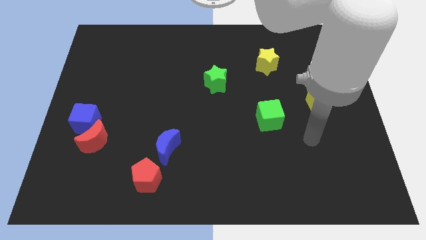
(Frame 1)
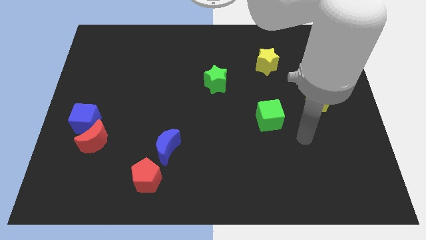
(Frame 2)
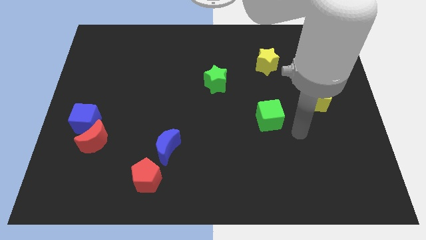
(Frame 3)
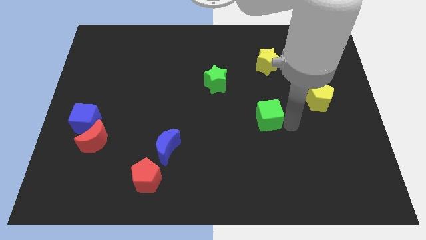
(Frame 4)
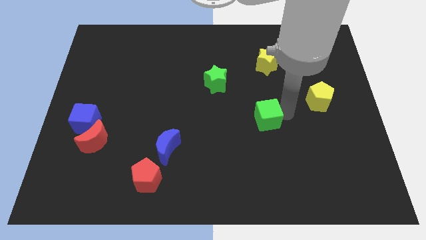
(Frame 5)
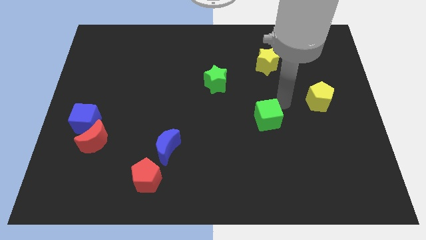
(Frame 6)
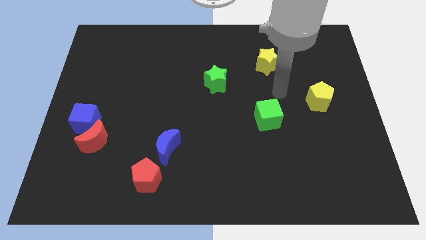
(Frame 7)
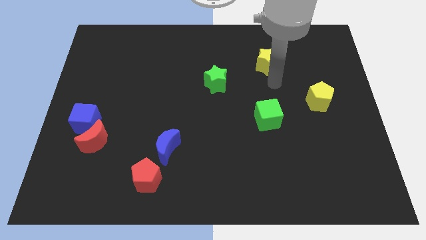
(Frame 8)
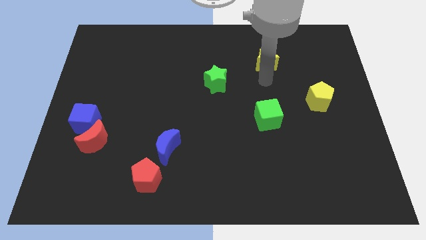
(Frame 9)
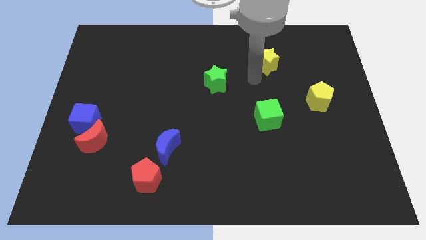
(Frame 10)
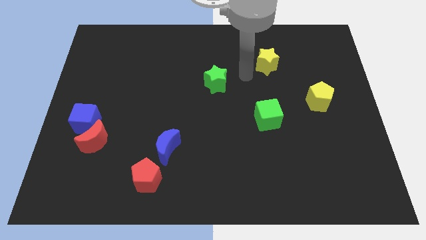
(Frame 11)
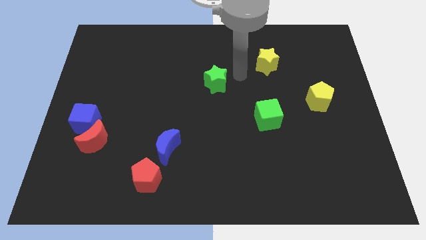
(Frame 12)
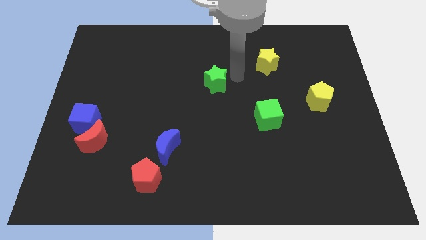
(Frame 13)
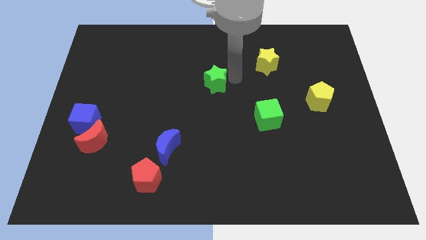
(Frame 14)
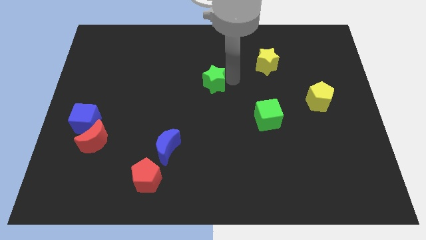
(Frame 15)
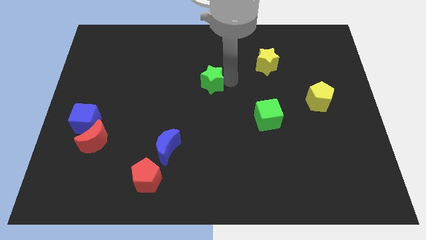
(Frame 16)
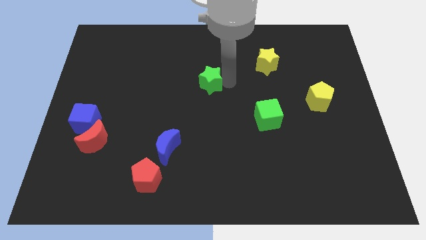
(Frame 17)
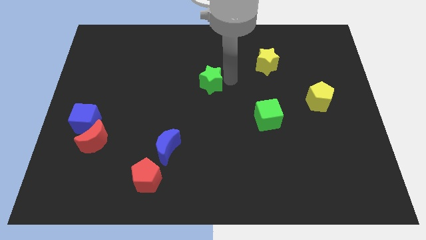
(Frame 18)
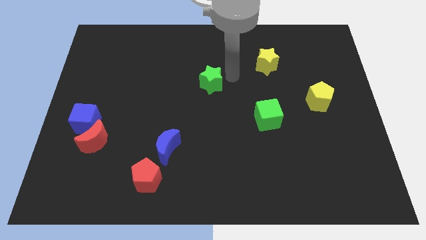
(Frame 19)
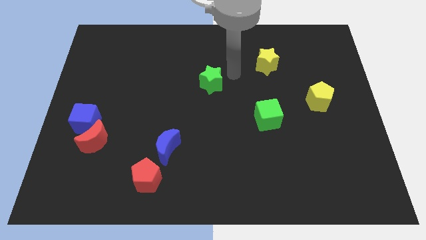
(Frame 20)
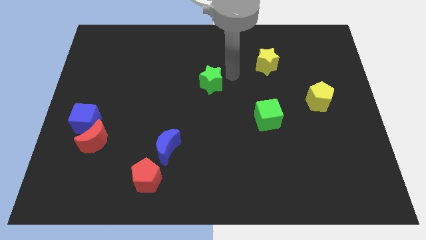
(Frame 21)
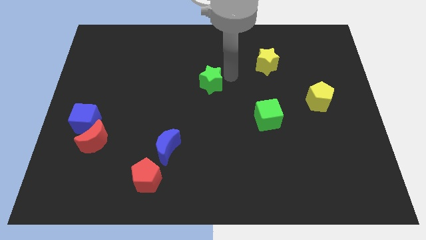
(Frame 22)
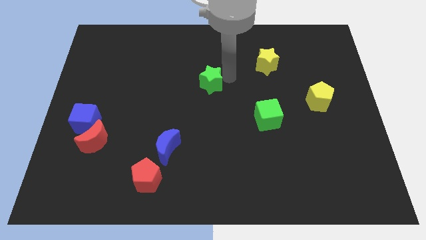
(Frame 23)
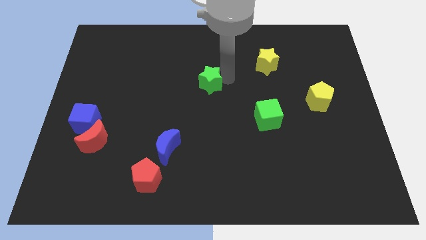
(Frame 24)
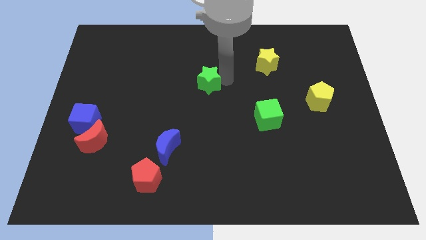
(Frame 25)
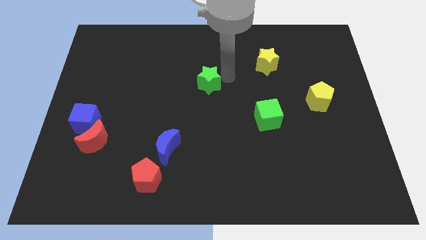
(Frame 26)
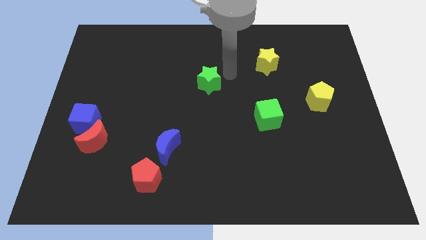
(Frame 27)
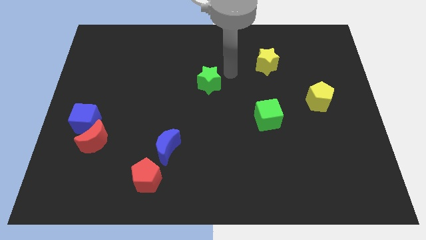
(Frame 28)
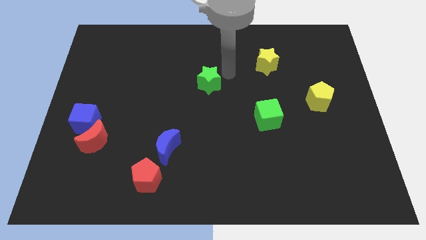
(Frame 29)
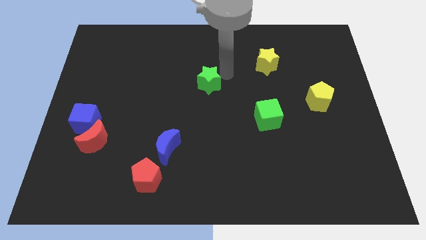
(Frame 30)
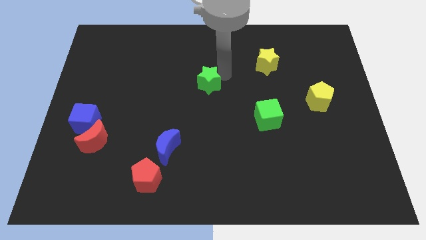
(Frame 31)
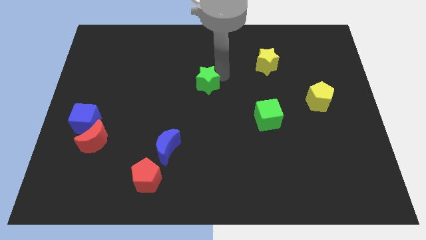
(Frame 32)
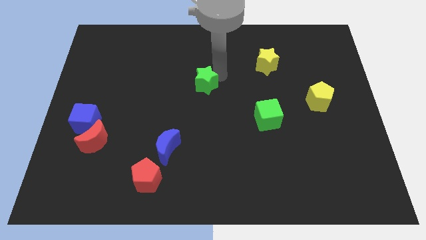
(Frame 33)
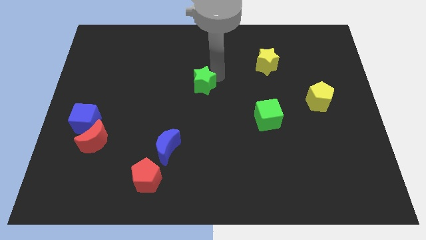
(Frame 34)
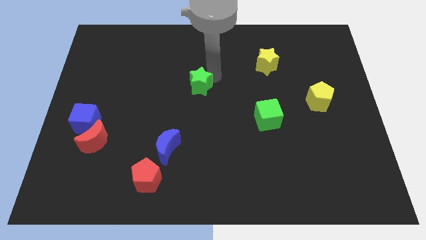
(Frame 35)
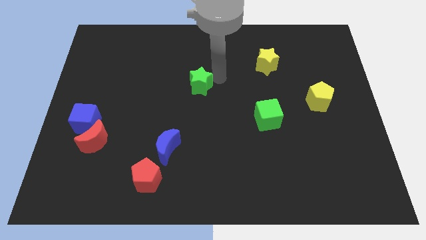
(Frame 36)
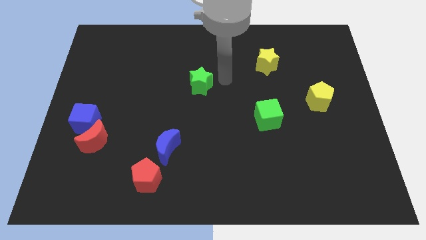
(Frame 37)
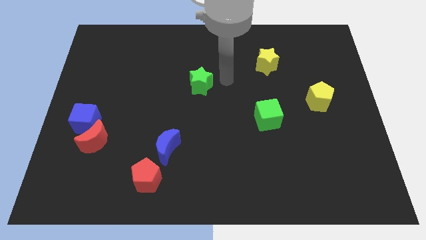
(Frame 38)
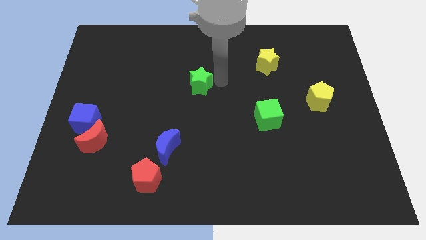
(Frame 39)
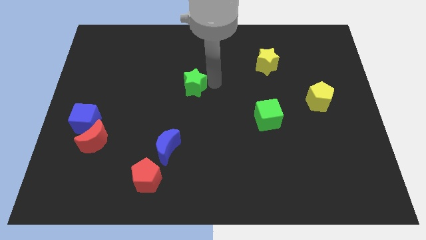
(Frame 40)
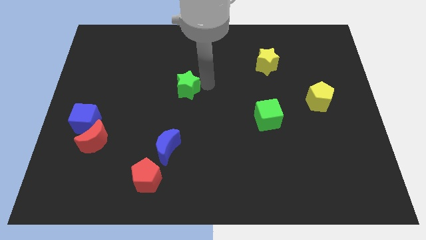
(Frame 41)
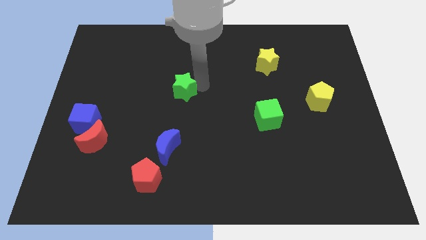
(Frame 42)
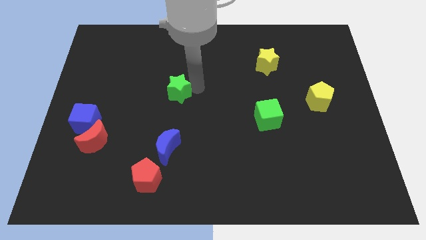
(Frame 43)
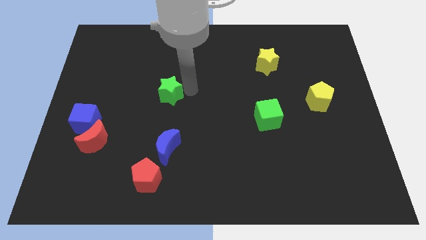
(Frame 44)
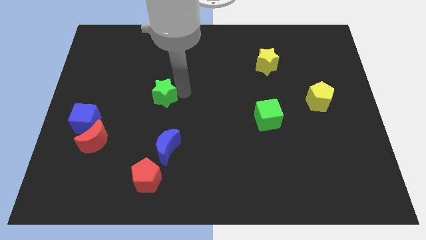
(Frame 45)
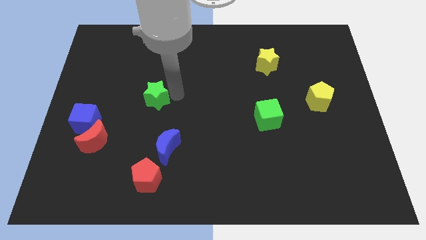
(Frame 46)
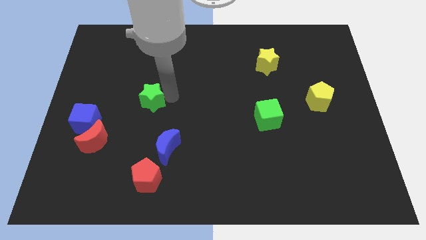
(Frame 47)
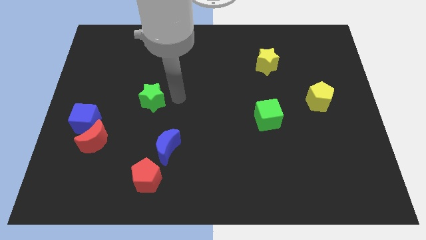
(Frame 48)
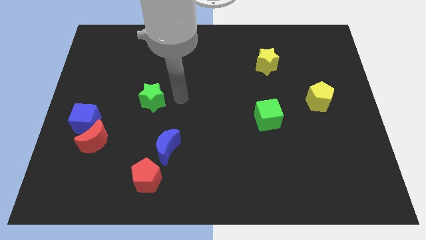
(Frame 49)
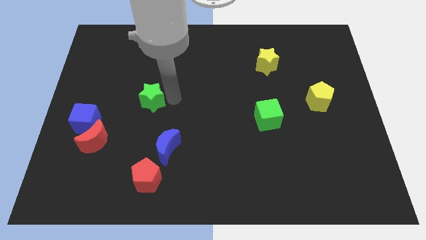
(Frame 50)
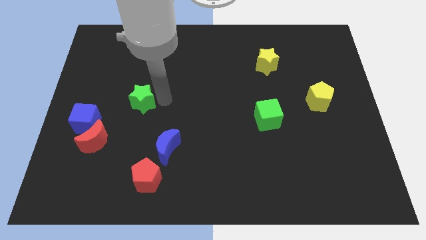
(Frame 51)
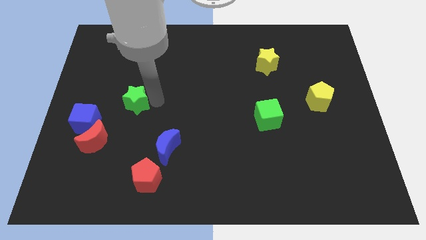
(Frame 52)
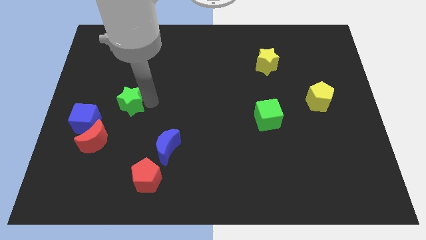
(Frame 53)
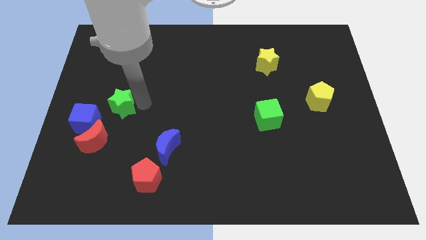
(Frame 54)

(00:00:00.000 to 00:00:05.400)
push the green star to the top side of the red moon

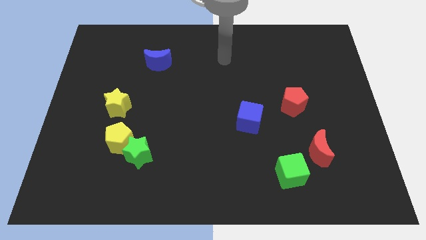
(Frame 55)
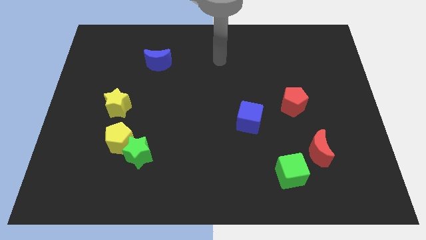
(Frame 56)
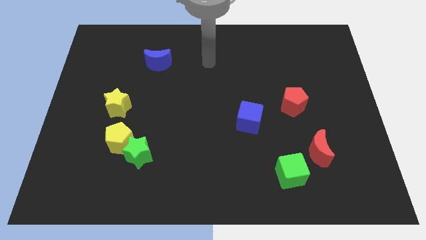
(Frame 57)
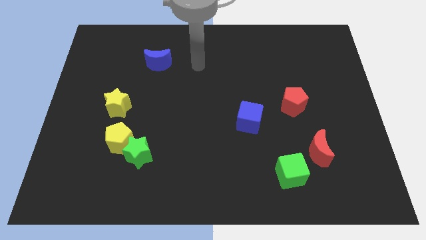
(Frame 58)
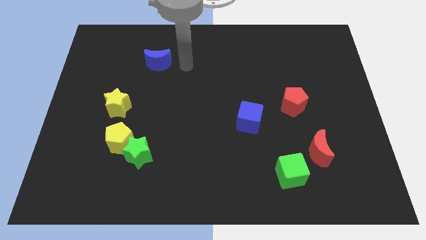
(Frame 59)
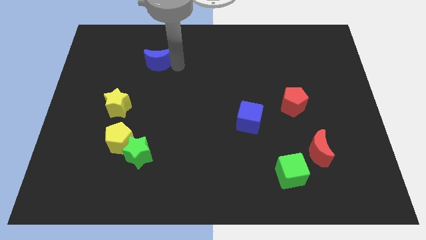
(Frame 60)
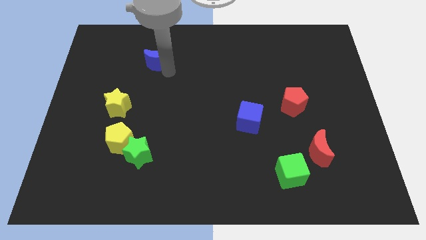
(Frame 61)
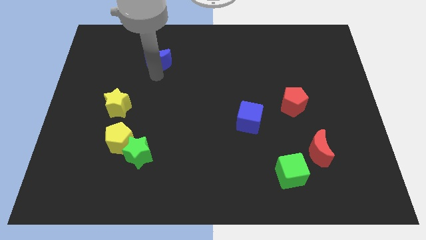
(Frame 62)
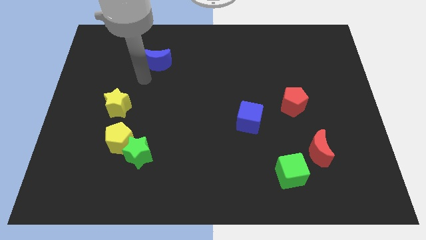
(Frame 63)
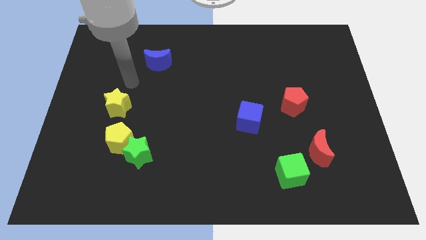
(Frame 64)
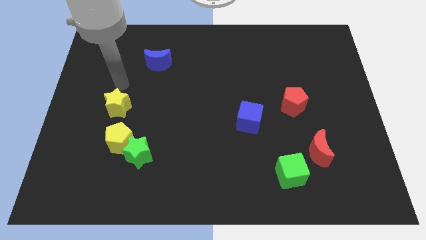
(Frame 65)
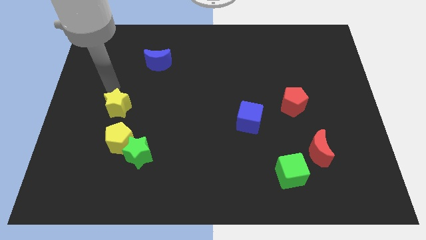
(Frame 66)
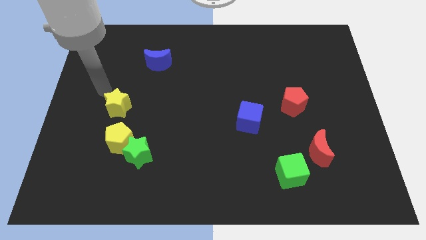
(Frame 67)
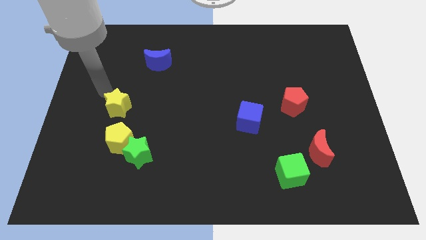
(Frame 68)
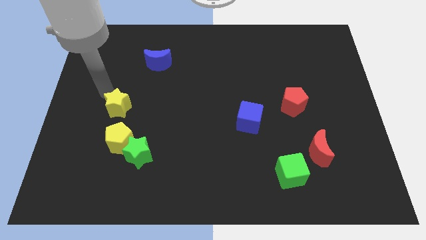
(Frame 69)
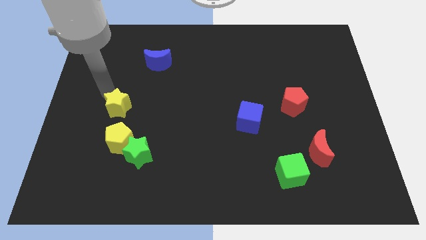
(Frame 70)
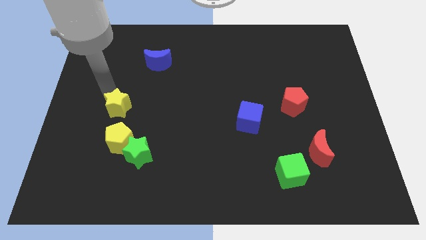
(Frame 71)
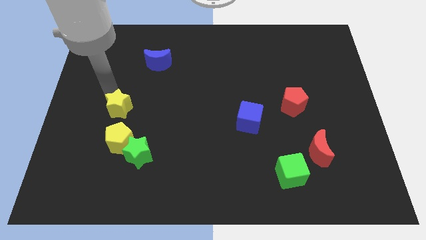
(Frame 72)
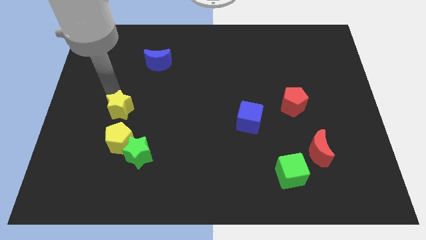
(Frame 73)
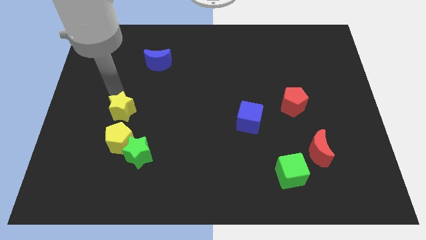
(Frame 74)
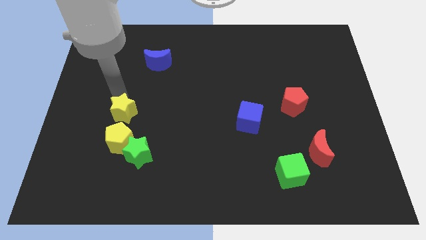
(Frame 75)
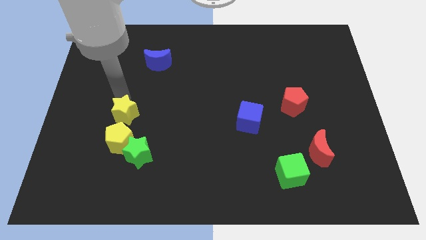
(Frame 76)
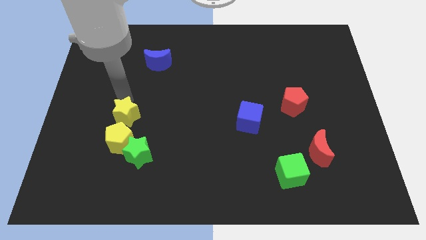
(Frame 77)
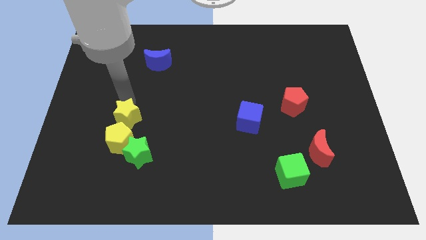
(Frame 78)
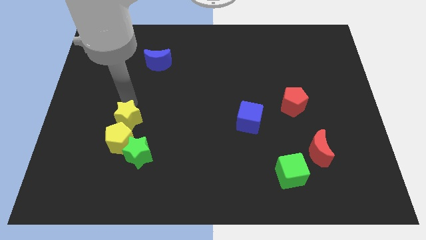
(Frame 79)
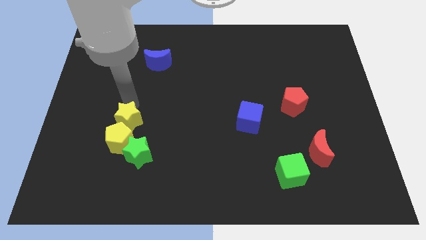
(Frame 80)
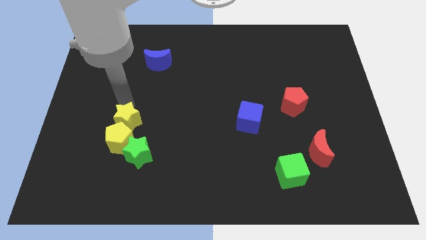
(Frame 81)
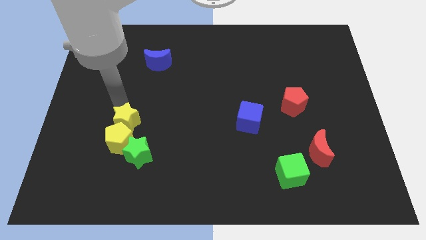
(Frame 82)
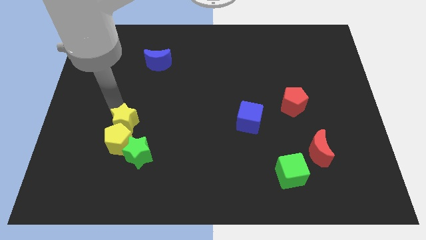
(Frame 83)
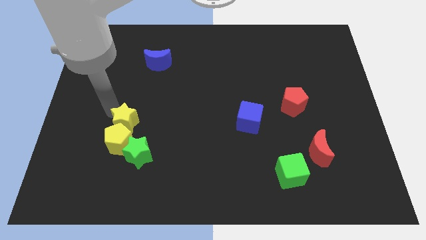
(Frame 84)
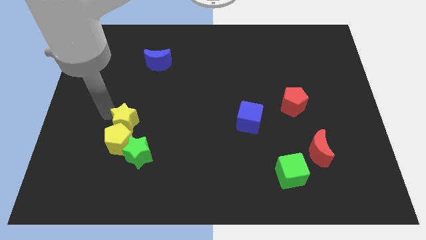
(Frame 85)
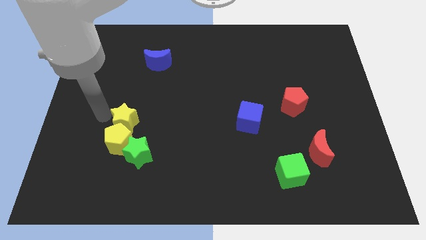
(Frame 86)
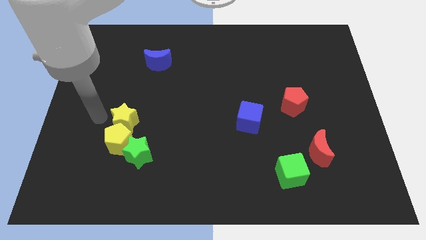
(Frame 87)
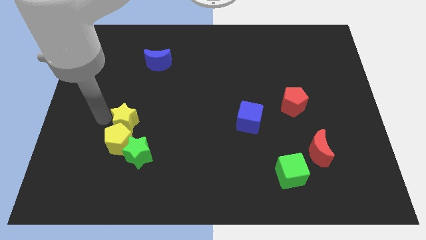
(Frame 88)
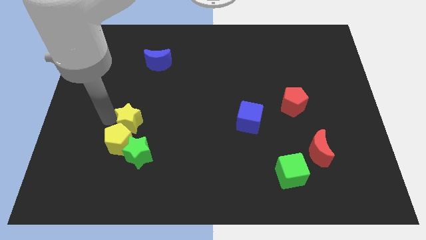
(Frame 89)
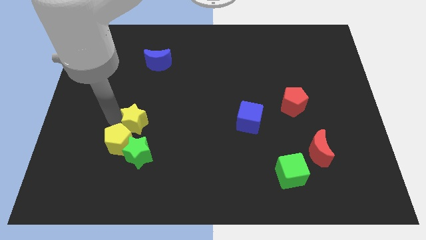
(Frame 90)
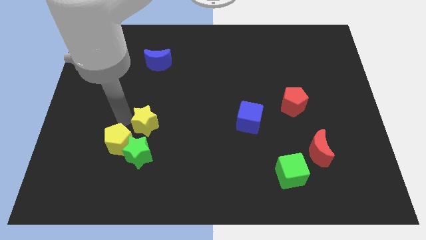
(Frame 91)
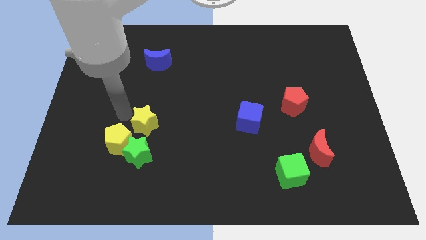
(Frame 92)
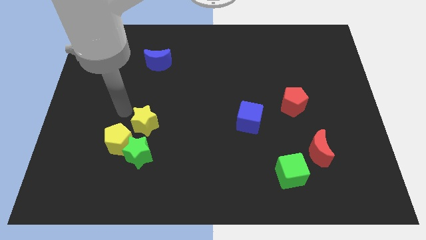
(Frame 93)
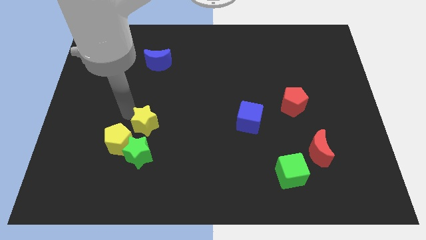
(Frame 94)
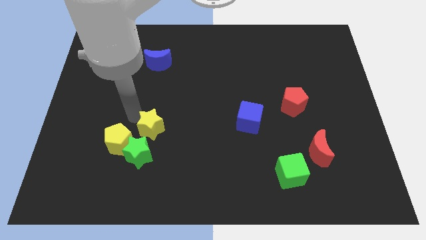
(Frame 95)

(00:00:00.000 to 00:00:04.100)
push the yellow star to the top right side of the green star
